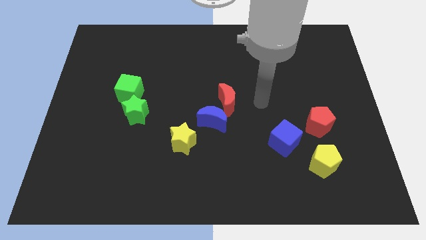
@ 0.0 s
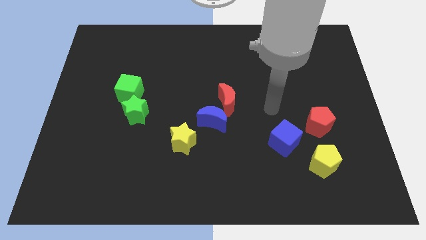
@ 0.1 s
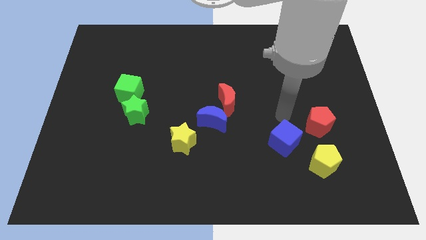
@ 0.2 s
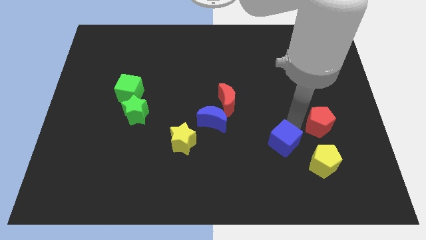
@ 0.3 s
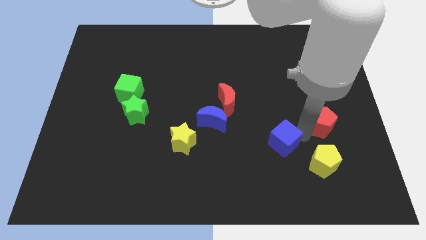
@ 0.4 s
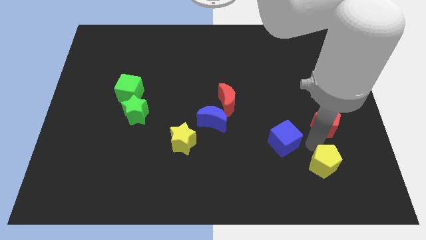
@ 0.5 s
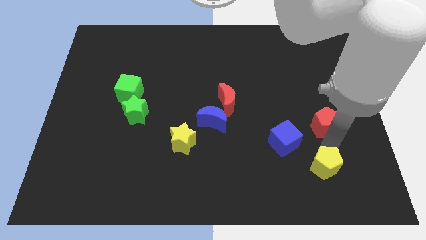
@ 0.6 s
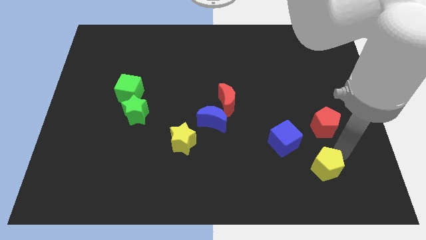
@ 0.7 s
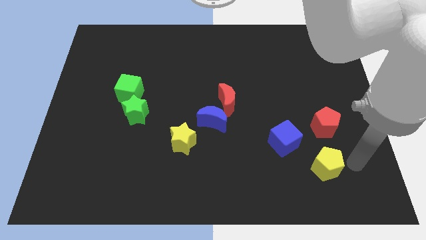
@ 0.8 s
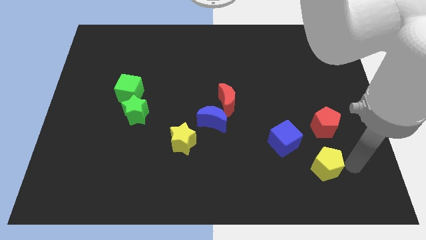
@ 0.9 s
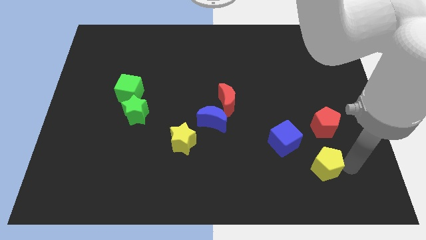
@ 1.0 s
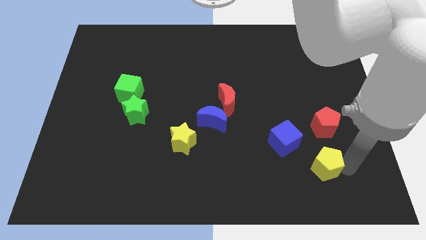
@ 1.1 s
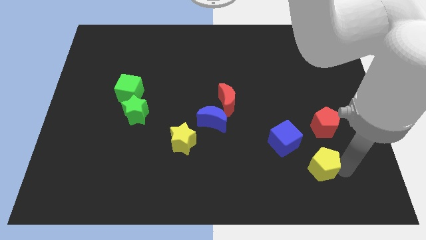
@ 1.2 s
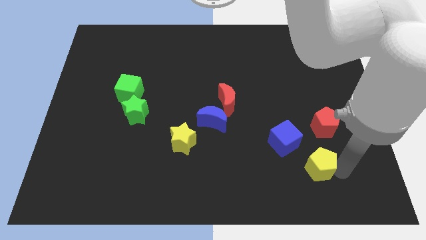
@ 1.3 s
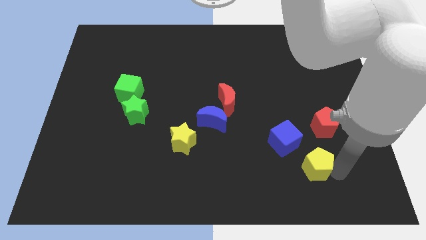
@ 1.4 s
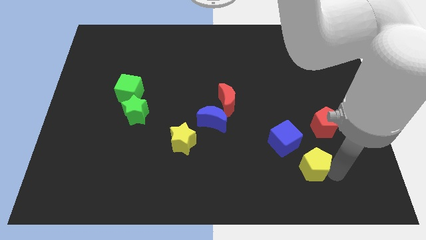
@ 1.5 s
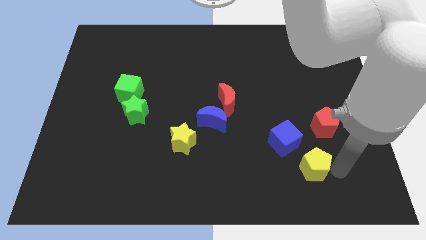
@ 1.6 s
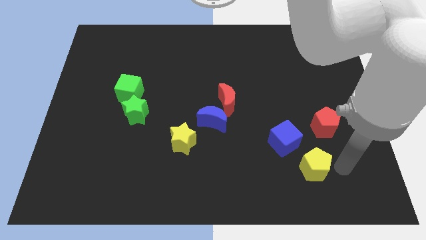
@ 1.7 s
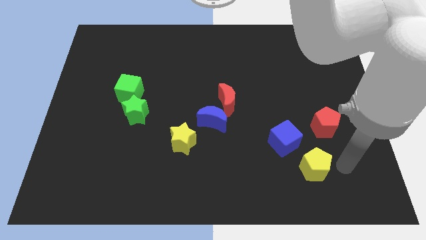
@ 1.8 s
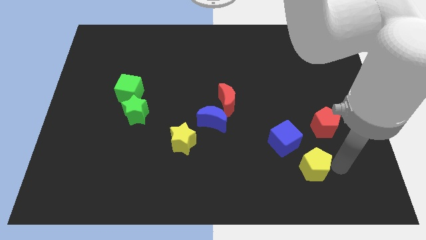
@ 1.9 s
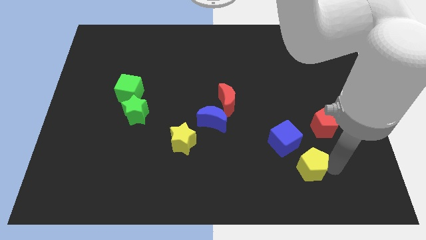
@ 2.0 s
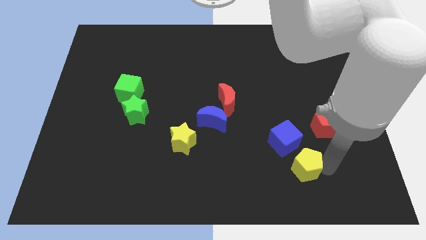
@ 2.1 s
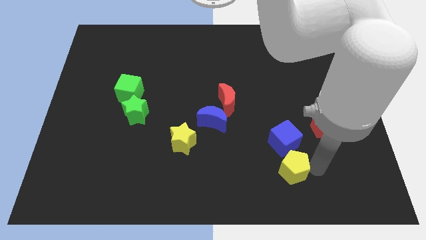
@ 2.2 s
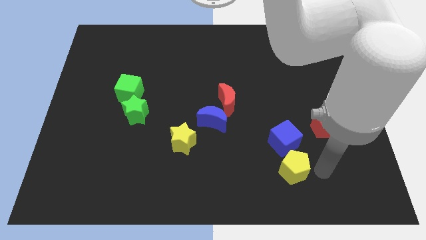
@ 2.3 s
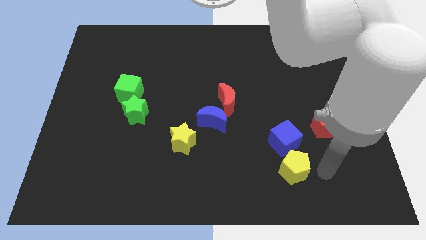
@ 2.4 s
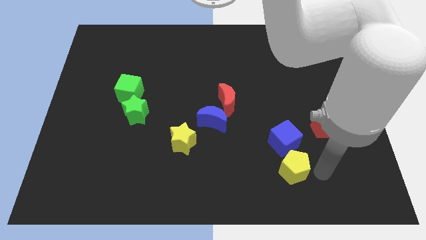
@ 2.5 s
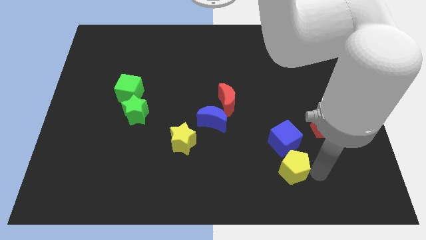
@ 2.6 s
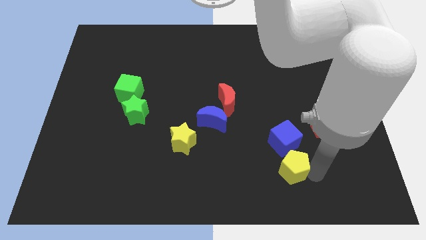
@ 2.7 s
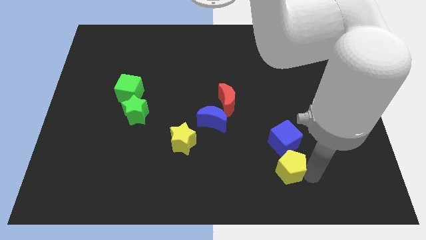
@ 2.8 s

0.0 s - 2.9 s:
slide the yellow pentagon a little to the left

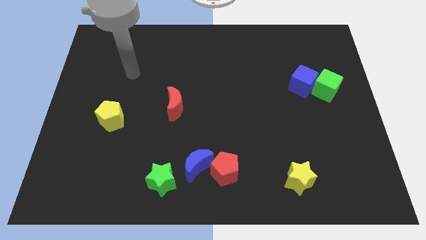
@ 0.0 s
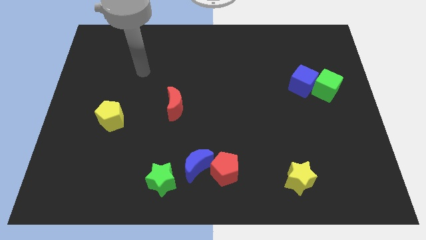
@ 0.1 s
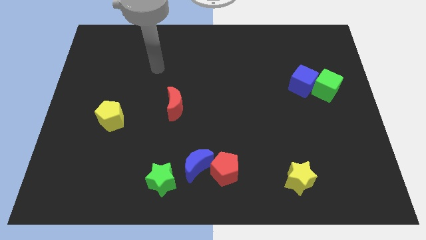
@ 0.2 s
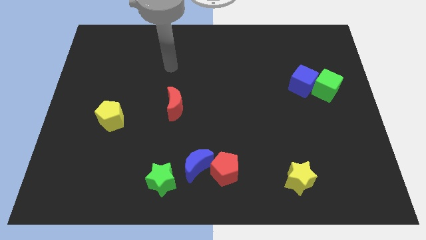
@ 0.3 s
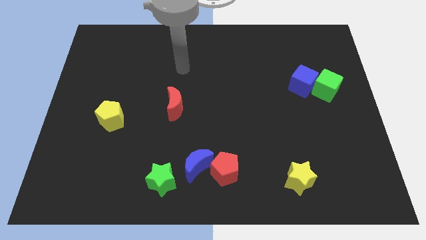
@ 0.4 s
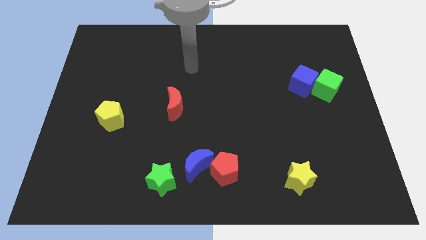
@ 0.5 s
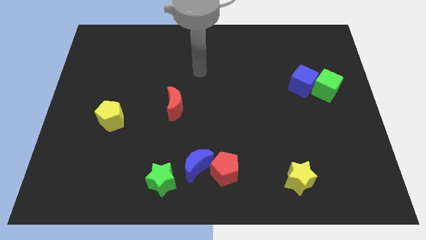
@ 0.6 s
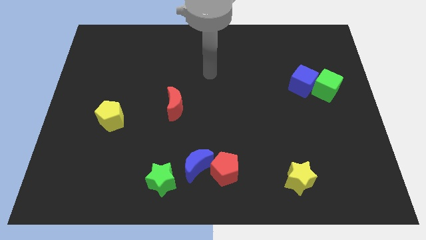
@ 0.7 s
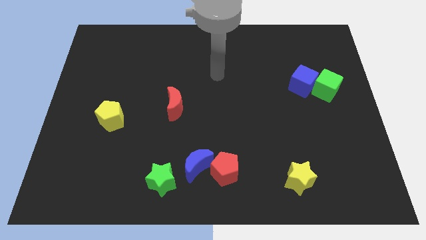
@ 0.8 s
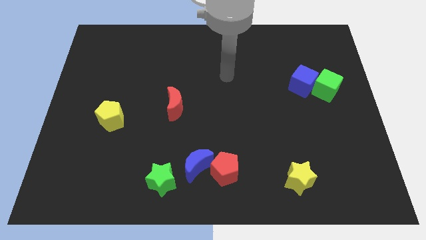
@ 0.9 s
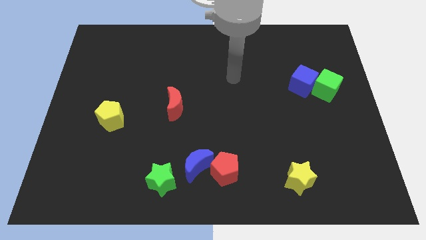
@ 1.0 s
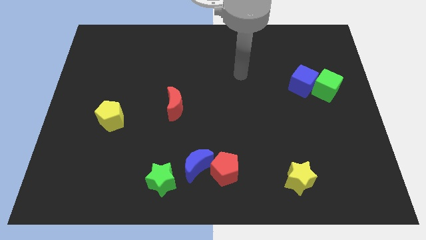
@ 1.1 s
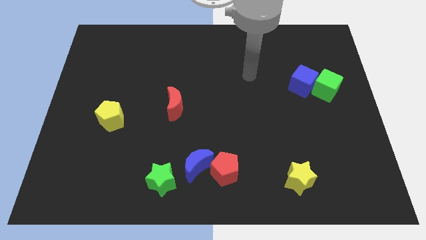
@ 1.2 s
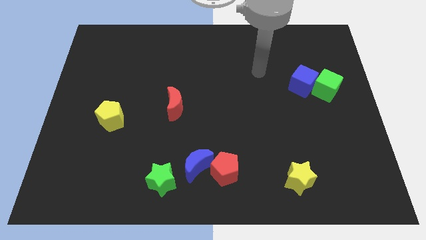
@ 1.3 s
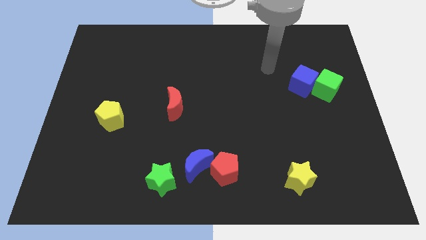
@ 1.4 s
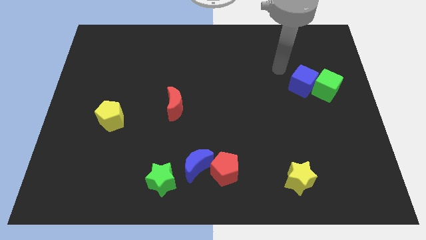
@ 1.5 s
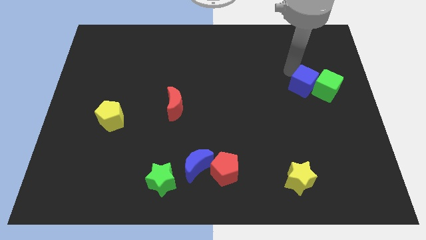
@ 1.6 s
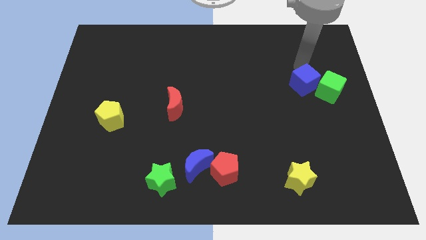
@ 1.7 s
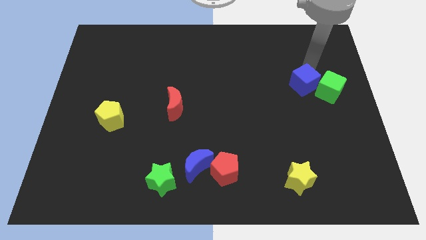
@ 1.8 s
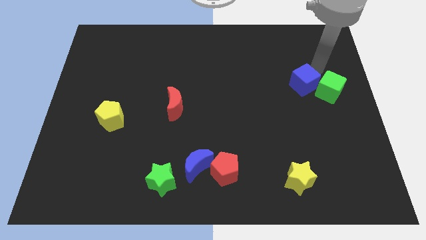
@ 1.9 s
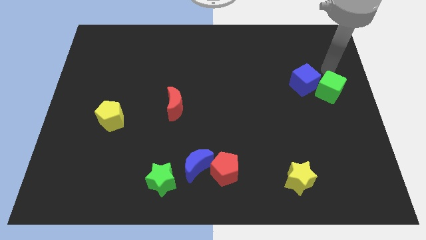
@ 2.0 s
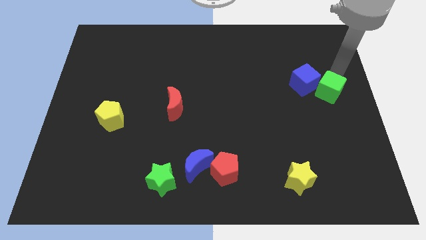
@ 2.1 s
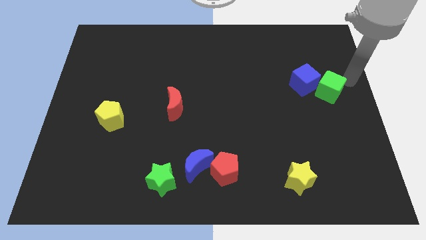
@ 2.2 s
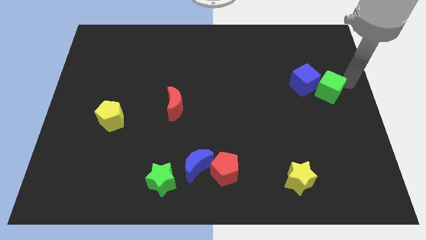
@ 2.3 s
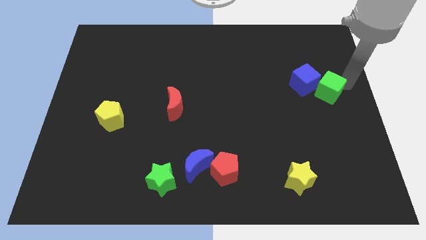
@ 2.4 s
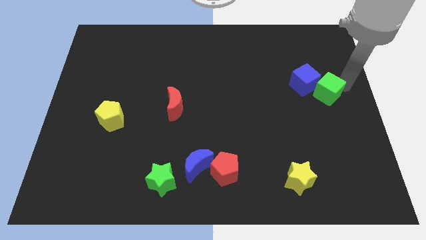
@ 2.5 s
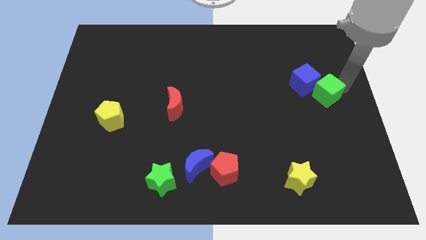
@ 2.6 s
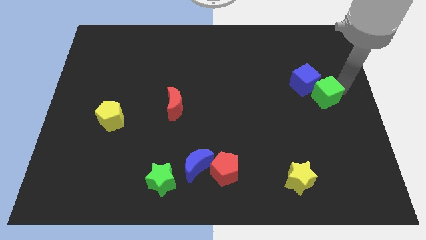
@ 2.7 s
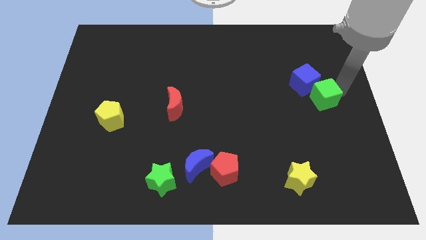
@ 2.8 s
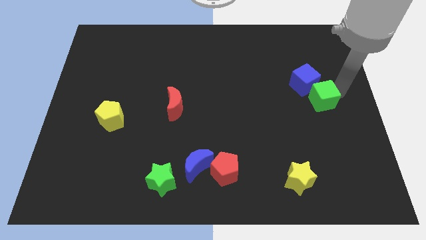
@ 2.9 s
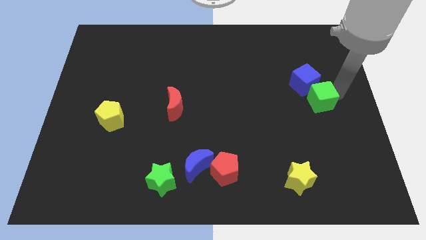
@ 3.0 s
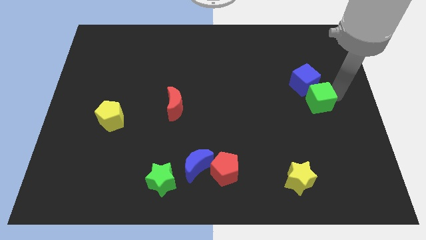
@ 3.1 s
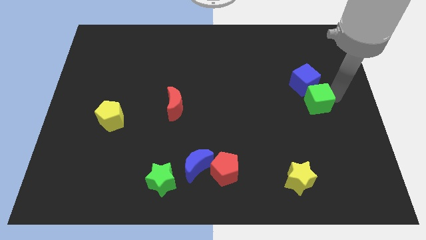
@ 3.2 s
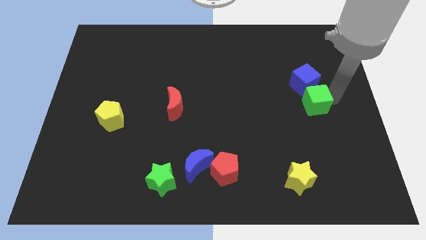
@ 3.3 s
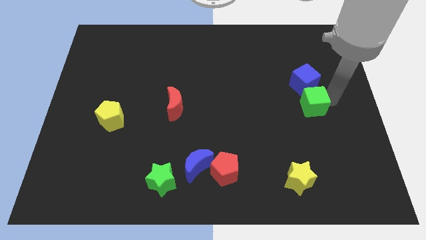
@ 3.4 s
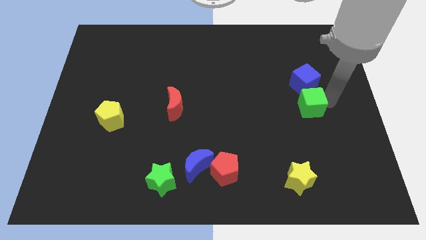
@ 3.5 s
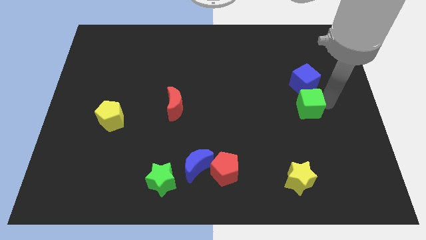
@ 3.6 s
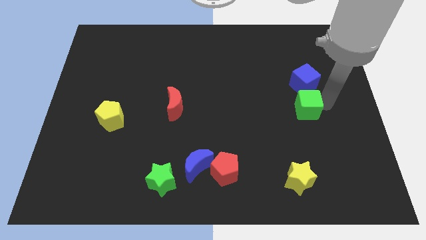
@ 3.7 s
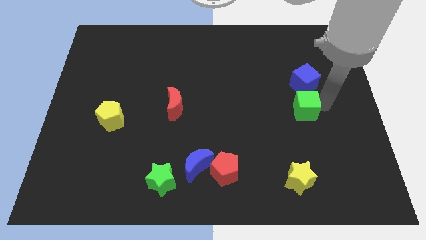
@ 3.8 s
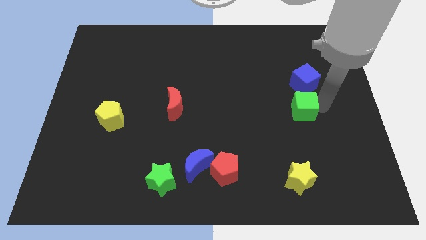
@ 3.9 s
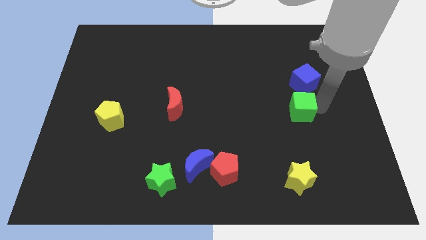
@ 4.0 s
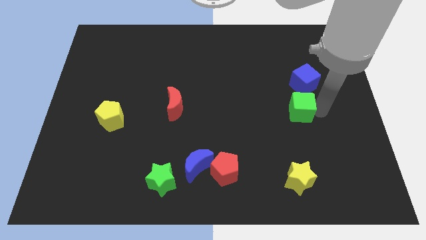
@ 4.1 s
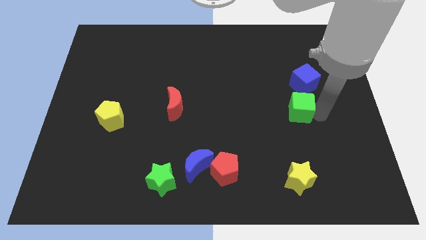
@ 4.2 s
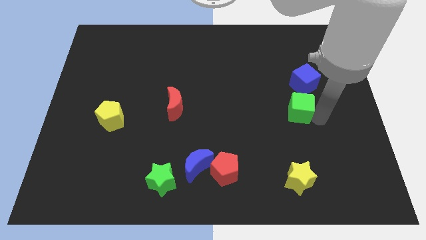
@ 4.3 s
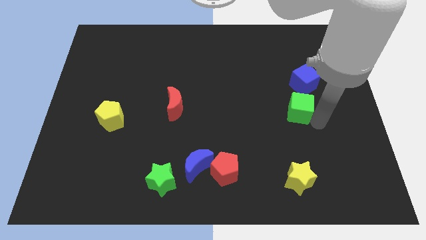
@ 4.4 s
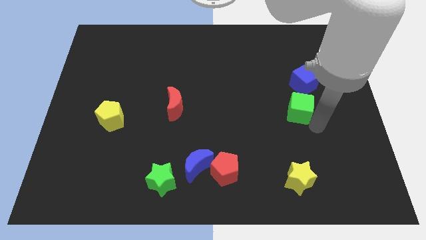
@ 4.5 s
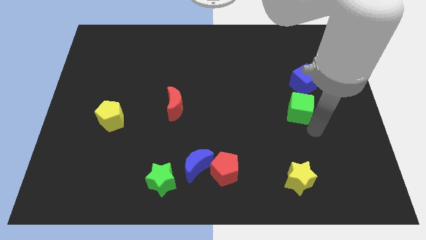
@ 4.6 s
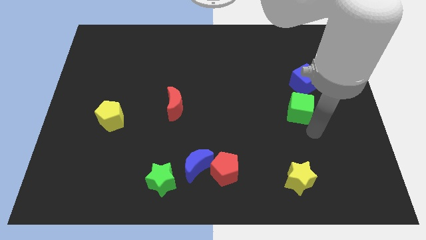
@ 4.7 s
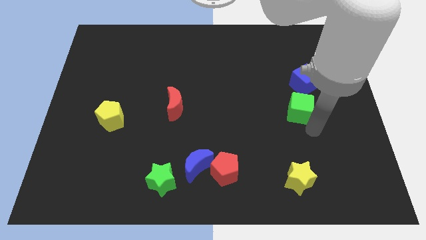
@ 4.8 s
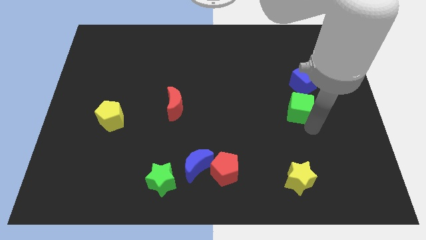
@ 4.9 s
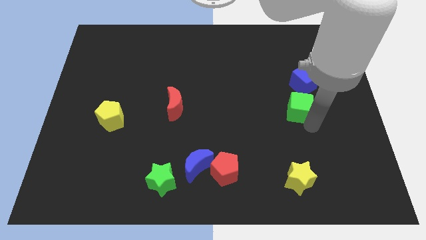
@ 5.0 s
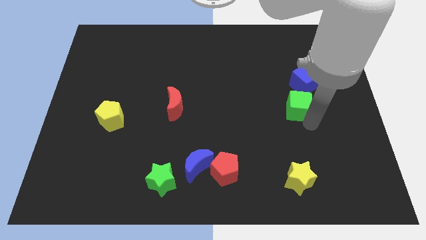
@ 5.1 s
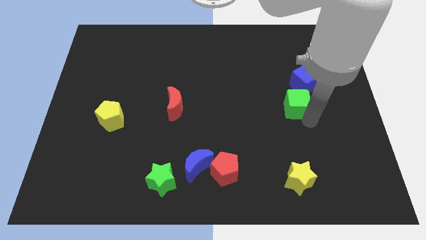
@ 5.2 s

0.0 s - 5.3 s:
push the green cube left a little bit
